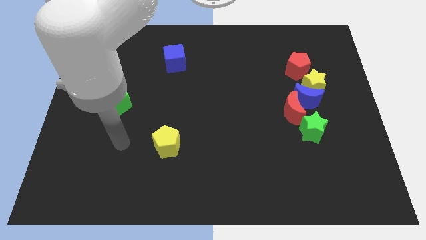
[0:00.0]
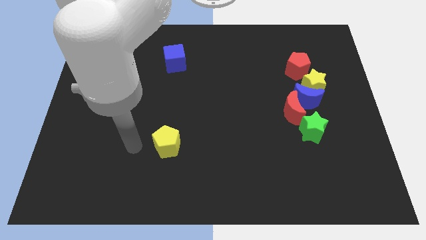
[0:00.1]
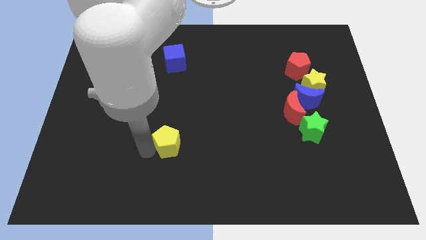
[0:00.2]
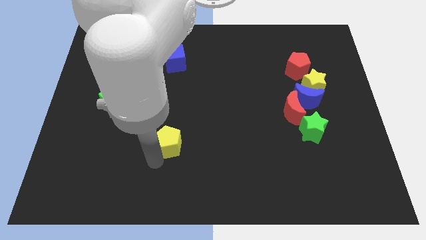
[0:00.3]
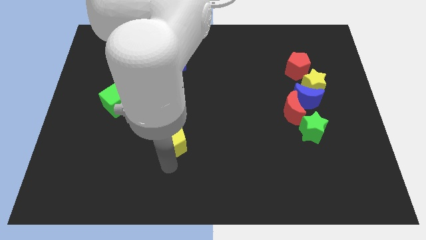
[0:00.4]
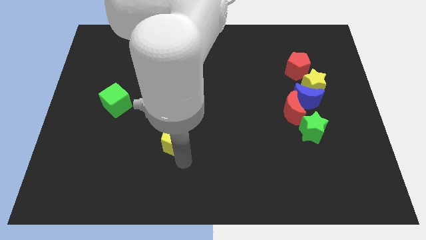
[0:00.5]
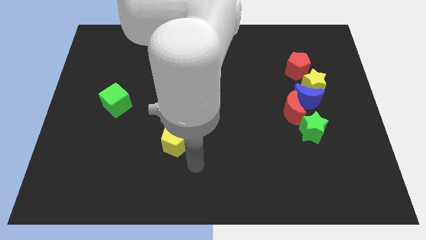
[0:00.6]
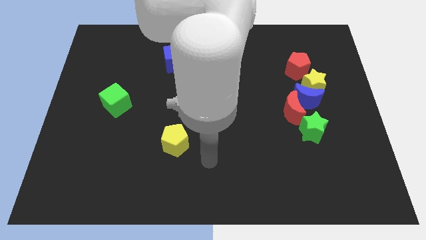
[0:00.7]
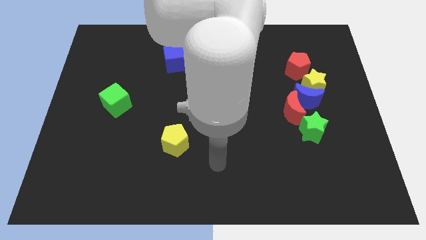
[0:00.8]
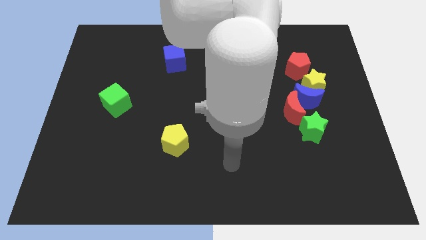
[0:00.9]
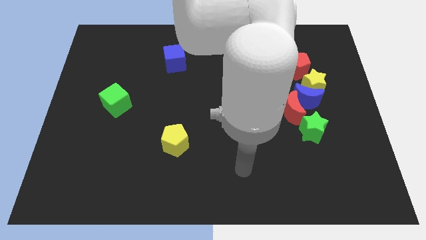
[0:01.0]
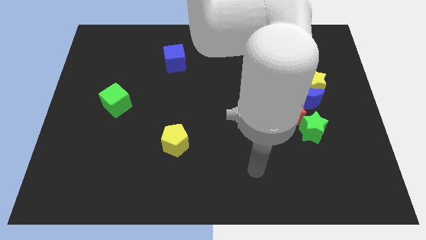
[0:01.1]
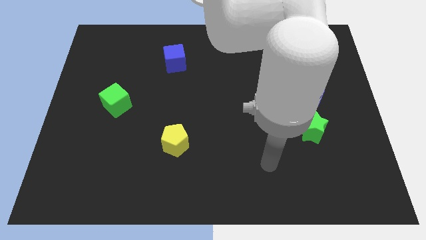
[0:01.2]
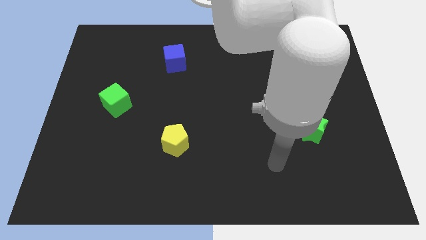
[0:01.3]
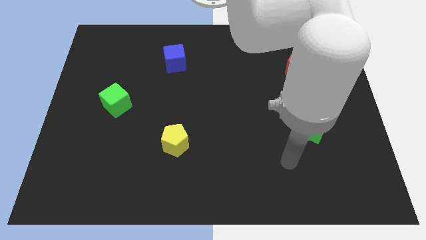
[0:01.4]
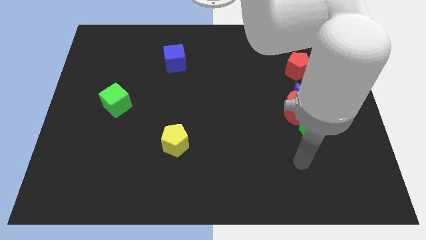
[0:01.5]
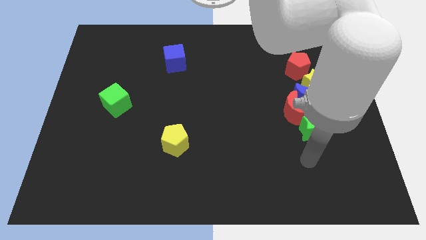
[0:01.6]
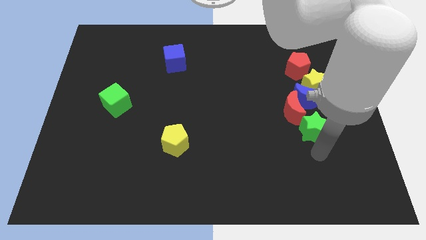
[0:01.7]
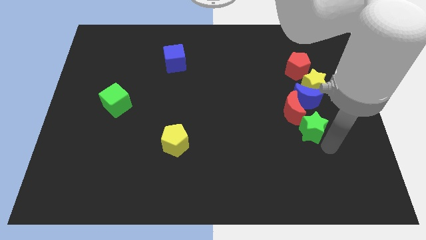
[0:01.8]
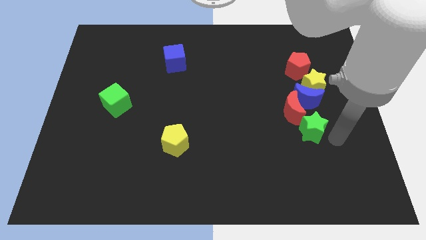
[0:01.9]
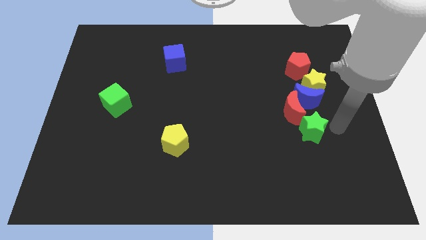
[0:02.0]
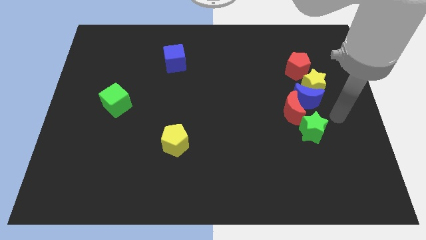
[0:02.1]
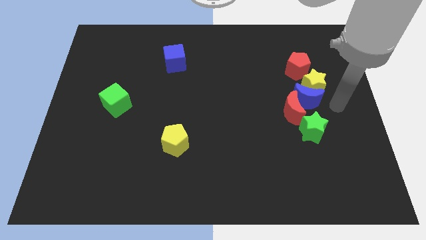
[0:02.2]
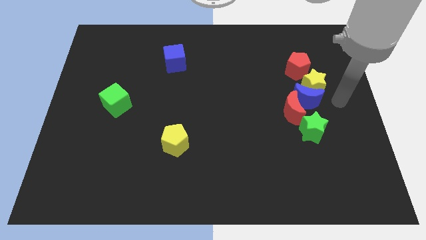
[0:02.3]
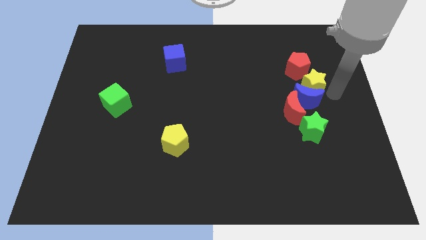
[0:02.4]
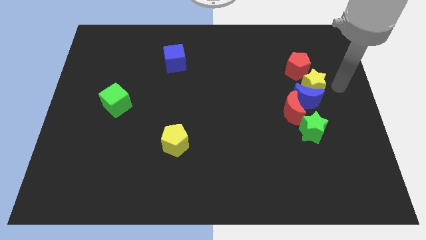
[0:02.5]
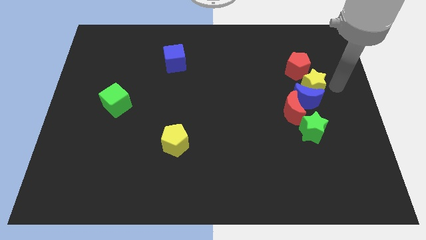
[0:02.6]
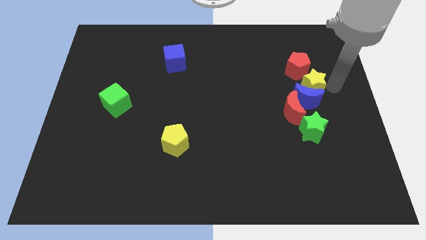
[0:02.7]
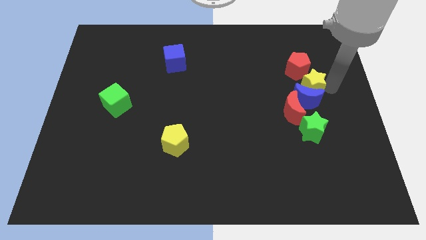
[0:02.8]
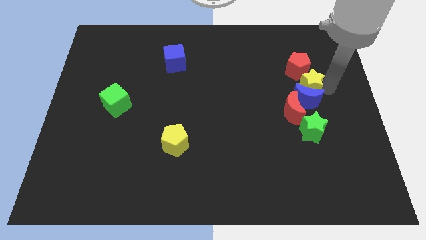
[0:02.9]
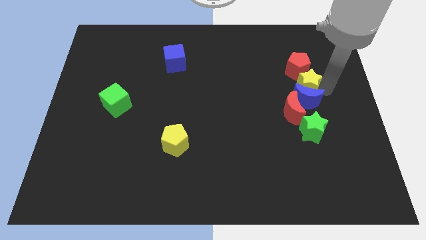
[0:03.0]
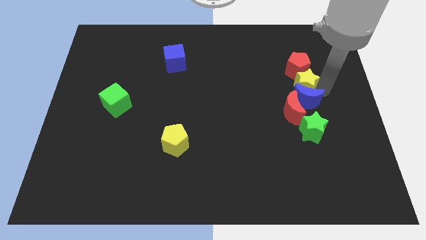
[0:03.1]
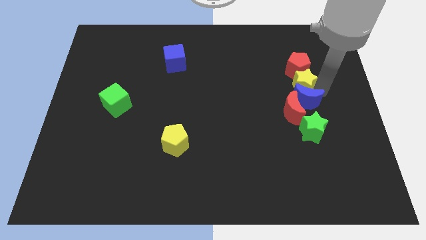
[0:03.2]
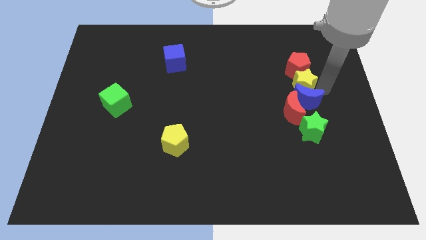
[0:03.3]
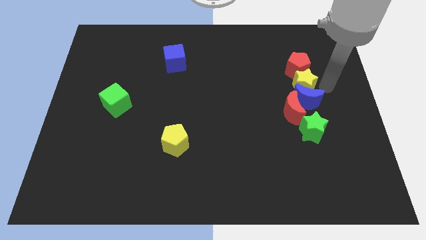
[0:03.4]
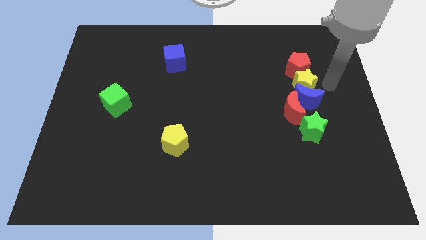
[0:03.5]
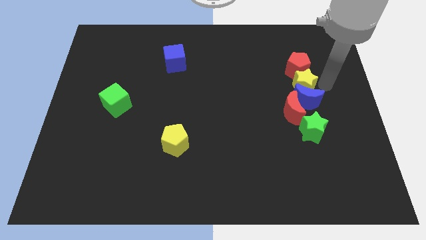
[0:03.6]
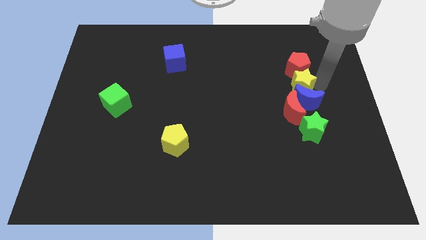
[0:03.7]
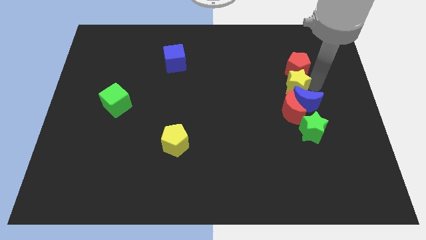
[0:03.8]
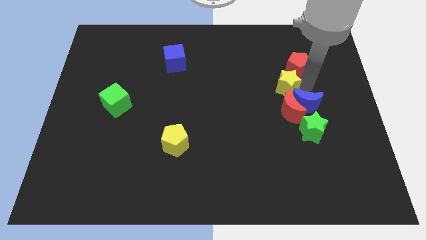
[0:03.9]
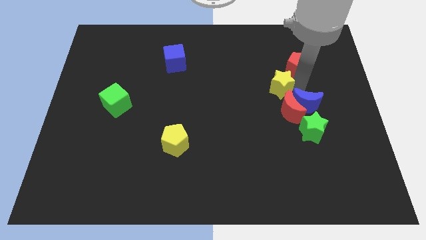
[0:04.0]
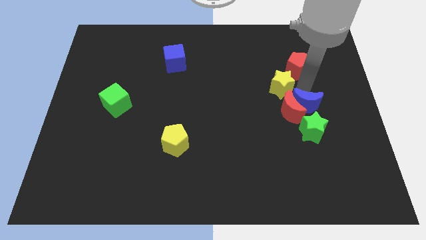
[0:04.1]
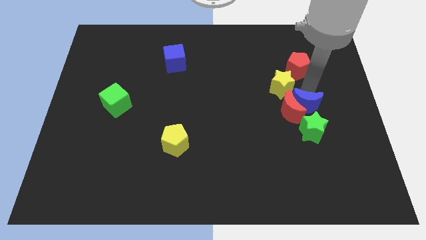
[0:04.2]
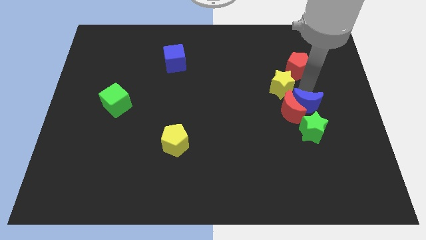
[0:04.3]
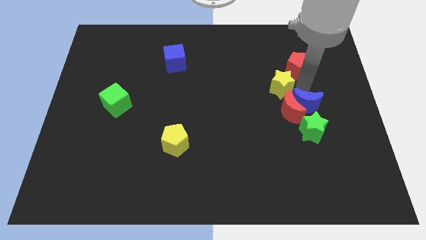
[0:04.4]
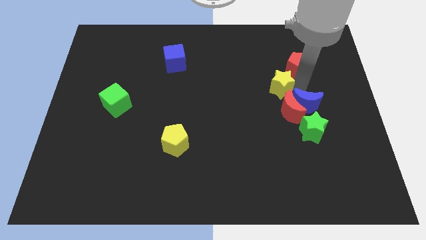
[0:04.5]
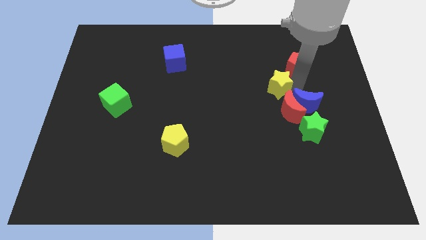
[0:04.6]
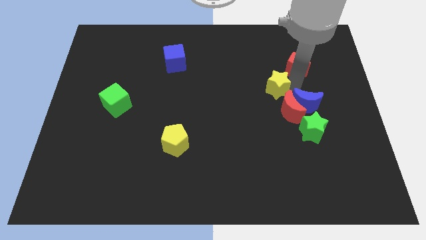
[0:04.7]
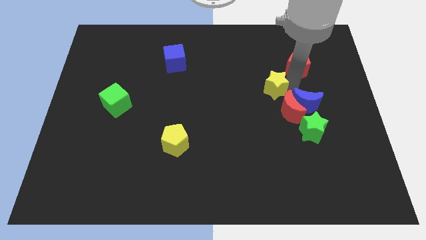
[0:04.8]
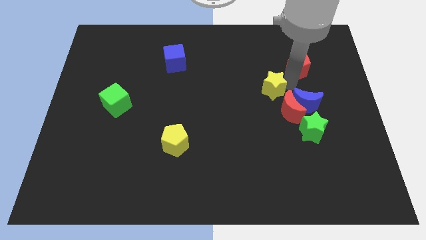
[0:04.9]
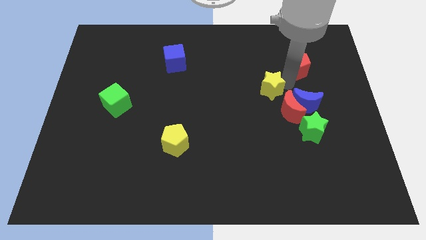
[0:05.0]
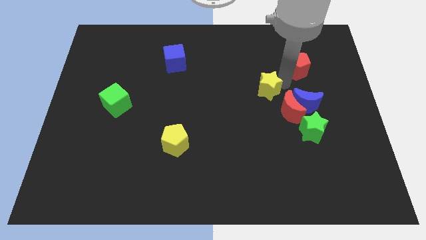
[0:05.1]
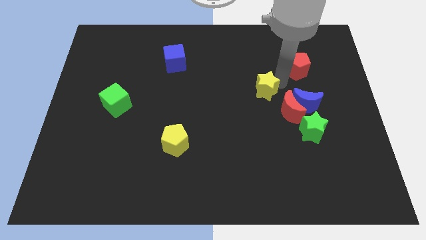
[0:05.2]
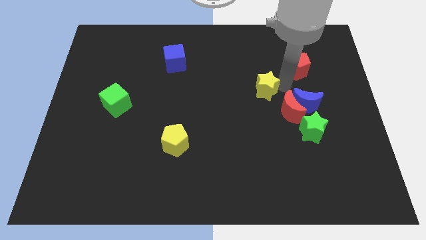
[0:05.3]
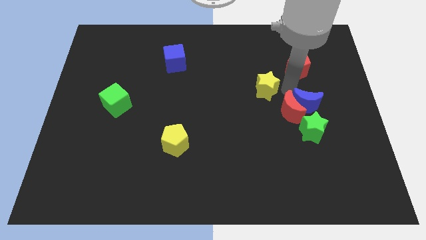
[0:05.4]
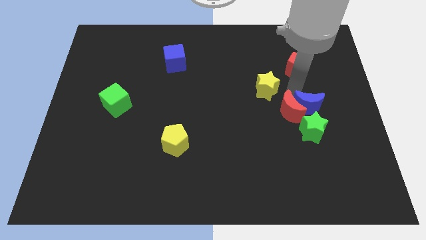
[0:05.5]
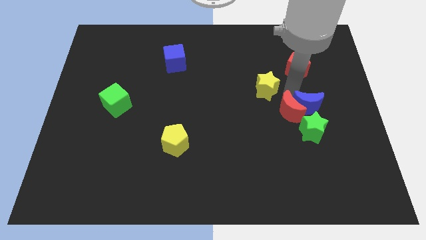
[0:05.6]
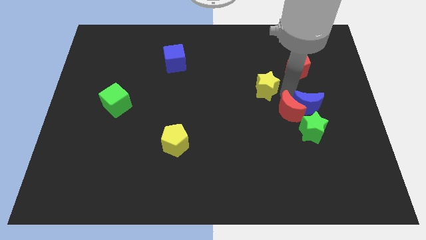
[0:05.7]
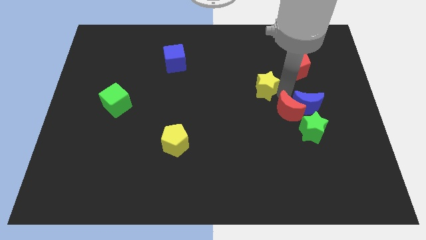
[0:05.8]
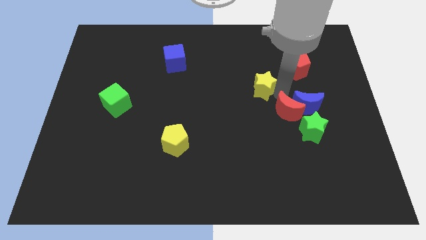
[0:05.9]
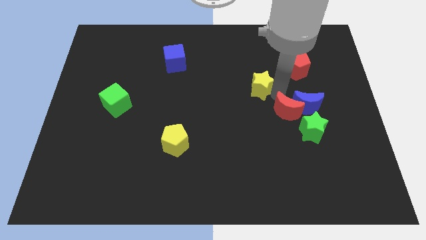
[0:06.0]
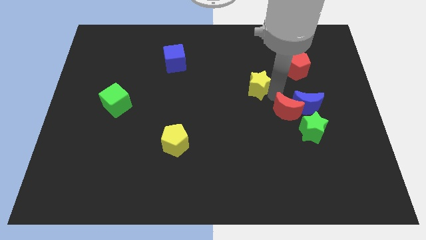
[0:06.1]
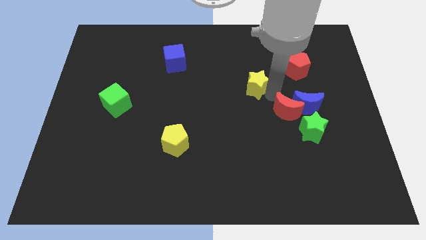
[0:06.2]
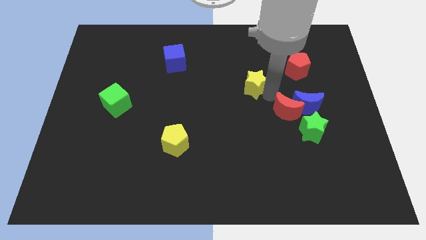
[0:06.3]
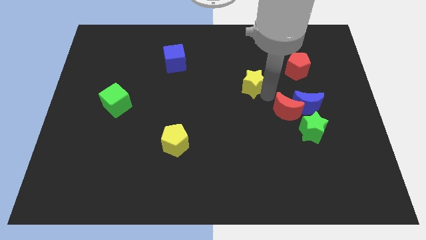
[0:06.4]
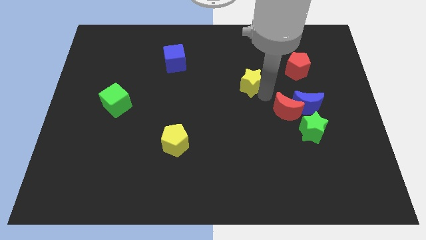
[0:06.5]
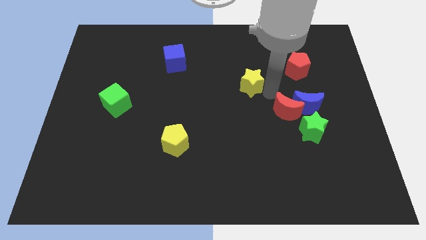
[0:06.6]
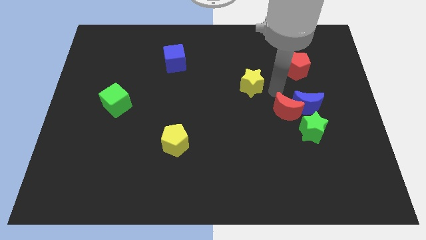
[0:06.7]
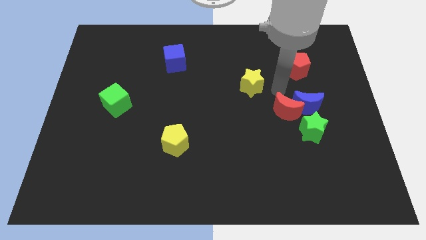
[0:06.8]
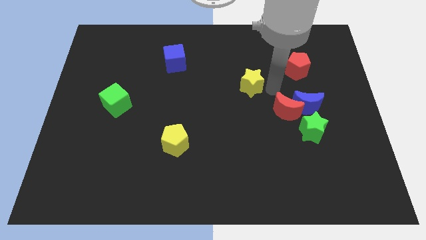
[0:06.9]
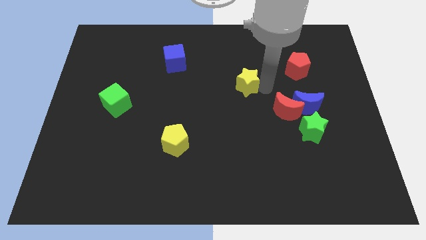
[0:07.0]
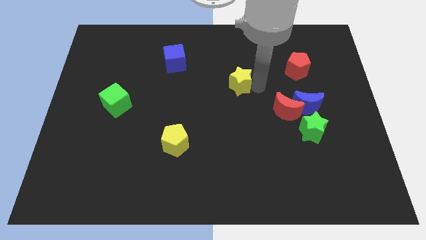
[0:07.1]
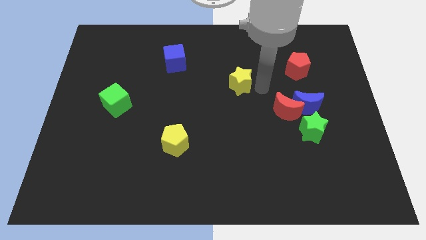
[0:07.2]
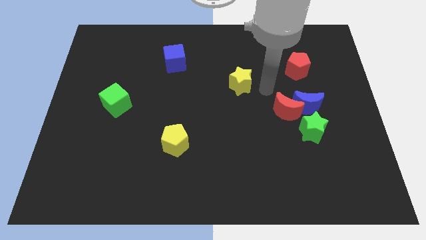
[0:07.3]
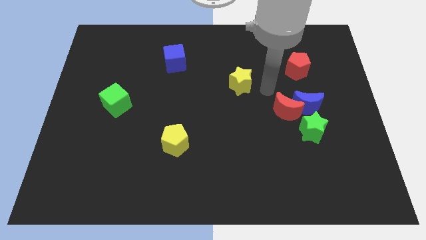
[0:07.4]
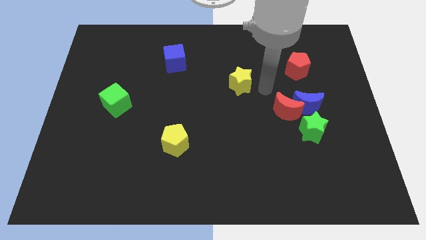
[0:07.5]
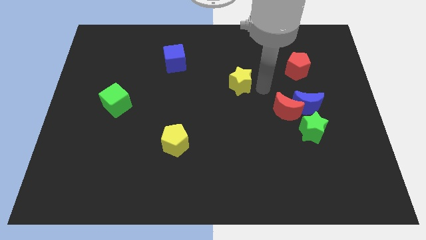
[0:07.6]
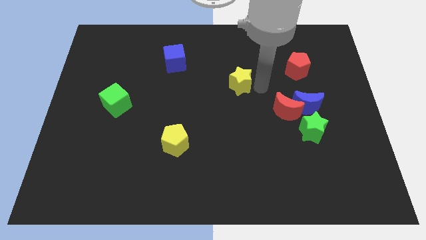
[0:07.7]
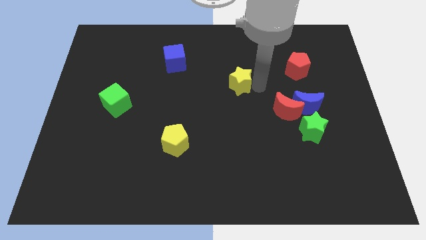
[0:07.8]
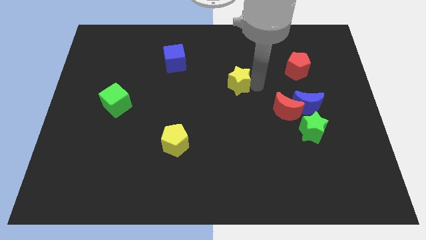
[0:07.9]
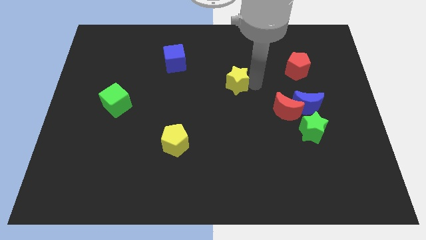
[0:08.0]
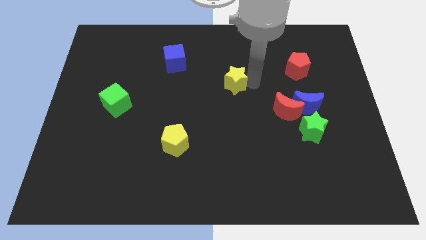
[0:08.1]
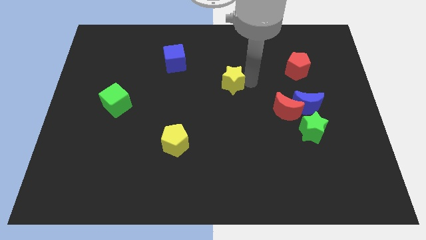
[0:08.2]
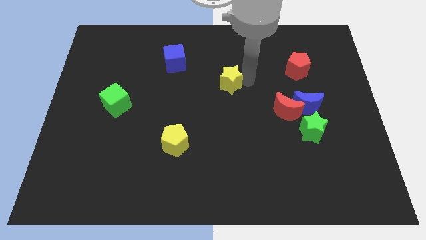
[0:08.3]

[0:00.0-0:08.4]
move the yellow star left
